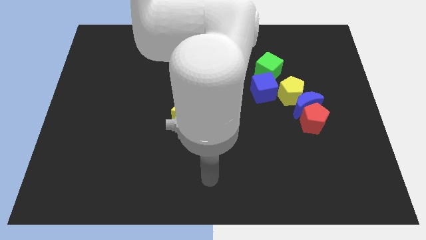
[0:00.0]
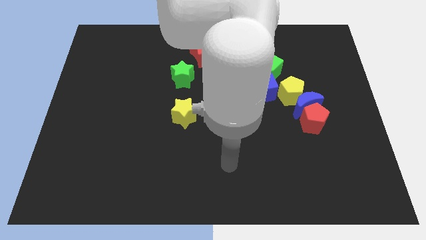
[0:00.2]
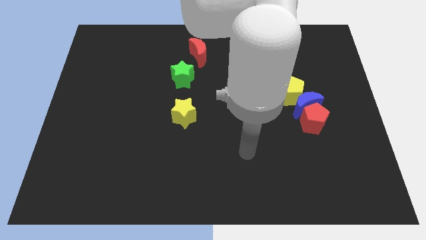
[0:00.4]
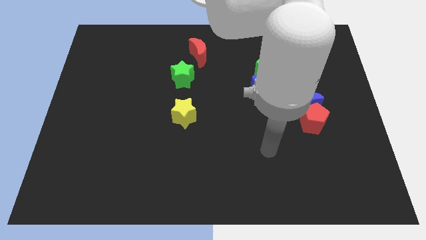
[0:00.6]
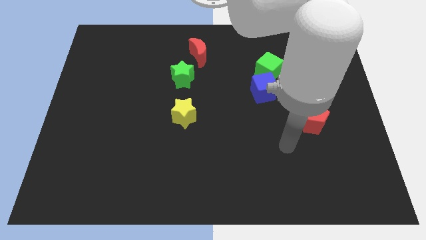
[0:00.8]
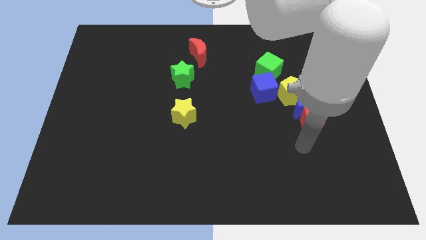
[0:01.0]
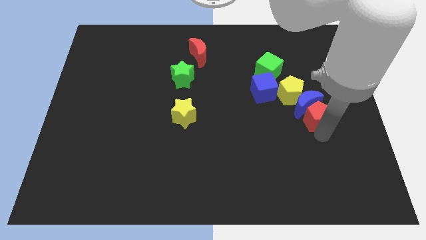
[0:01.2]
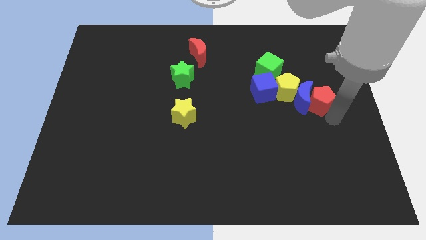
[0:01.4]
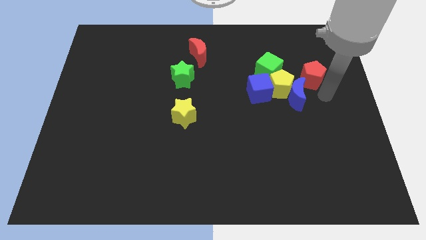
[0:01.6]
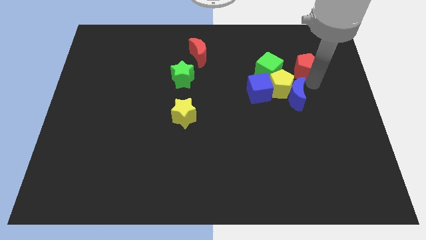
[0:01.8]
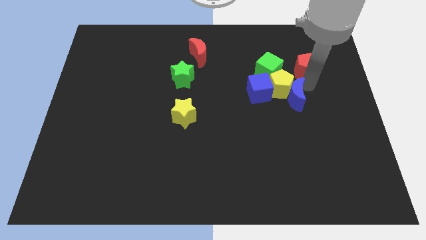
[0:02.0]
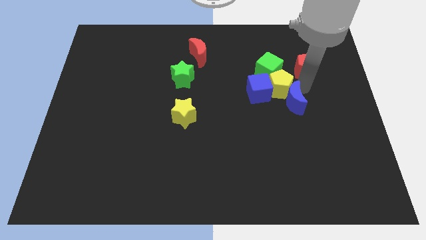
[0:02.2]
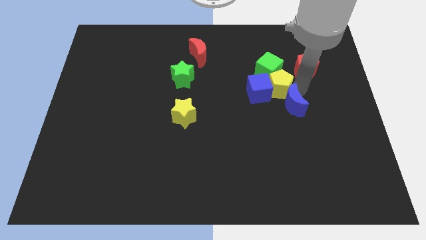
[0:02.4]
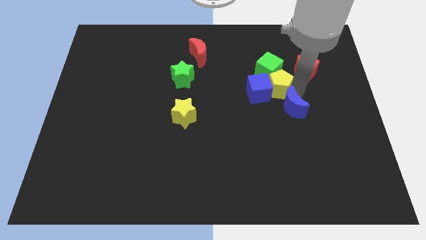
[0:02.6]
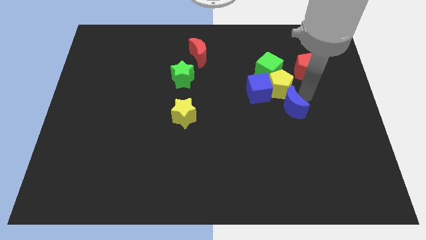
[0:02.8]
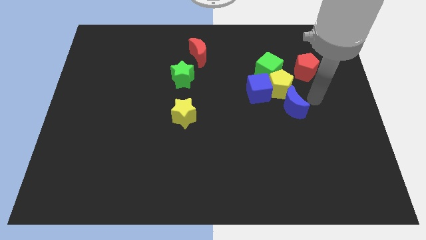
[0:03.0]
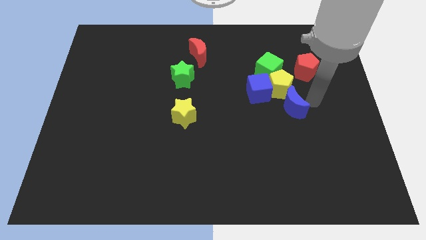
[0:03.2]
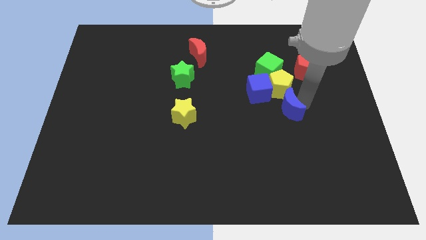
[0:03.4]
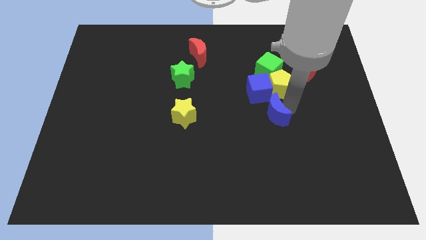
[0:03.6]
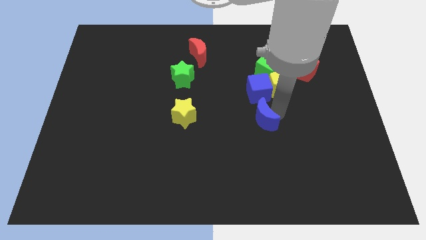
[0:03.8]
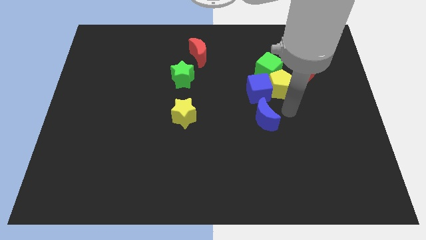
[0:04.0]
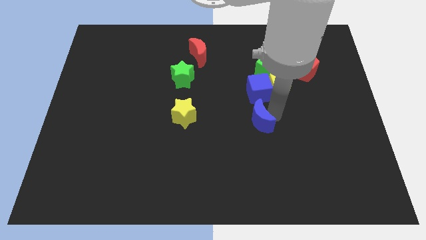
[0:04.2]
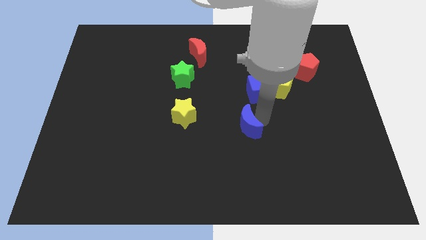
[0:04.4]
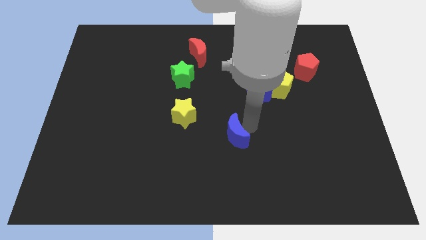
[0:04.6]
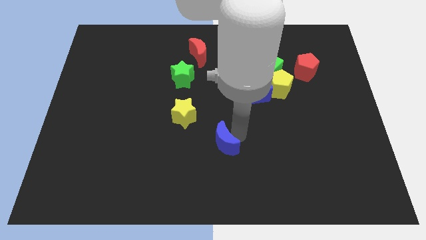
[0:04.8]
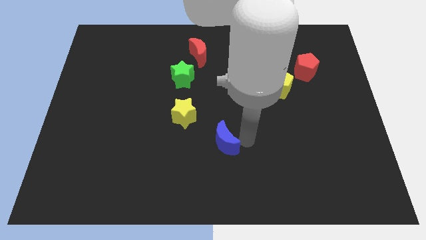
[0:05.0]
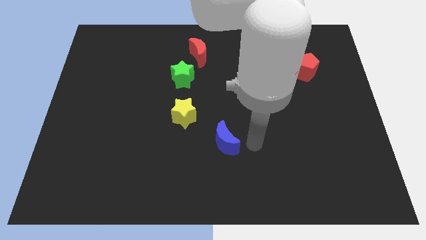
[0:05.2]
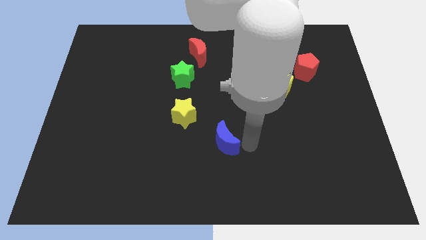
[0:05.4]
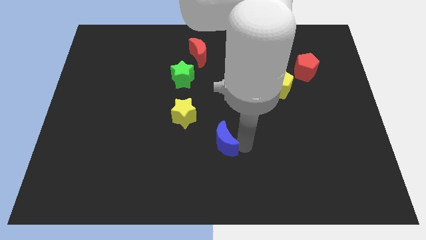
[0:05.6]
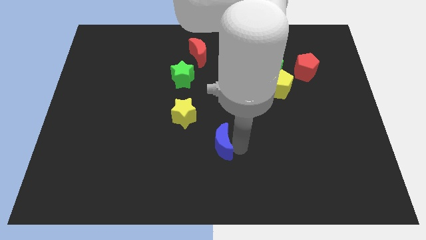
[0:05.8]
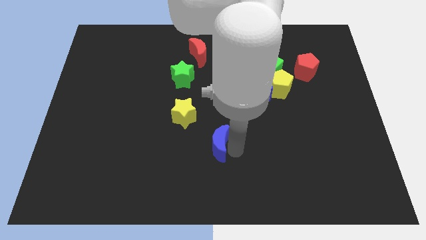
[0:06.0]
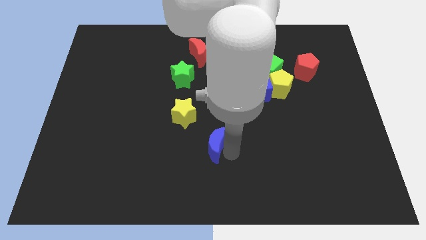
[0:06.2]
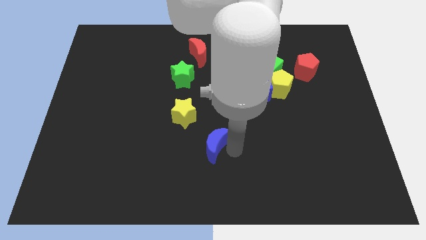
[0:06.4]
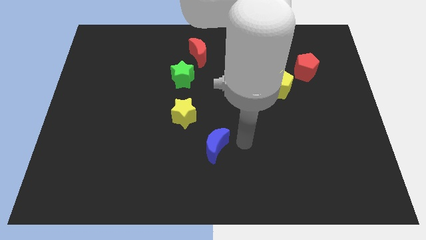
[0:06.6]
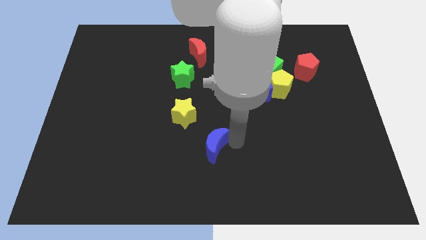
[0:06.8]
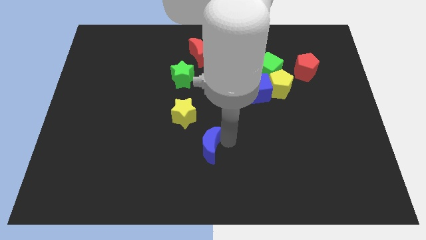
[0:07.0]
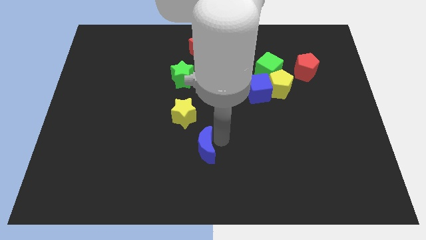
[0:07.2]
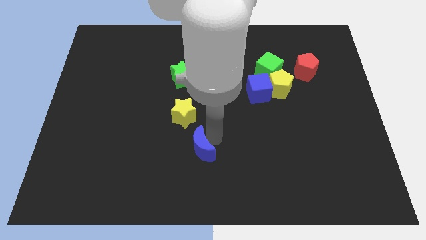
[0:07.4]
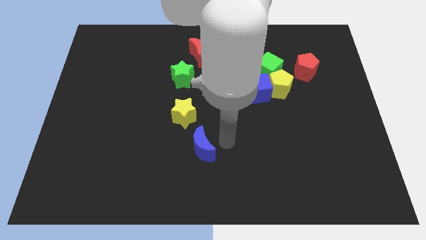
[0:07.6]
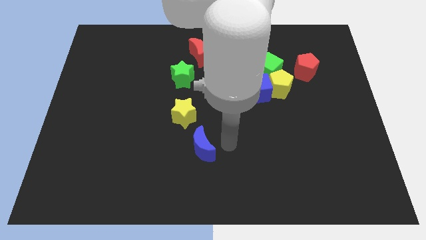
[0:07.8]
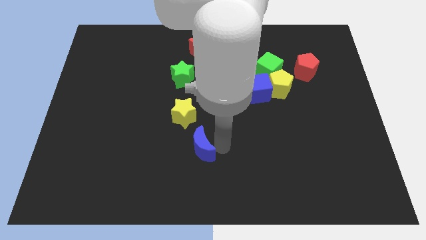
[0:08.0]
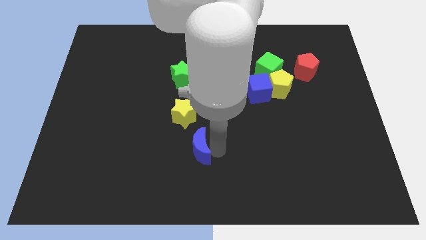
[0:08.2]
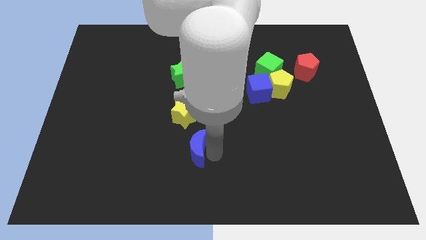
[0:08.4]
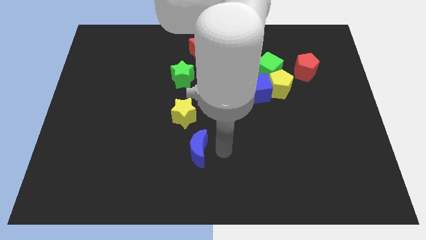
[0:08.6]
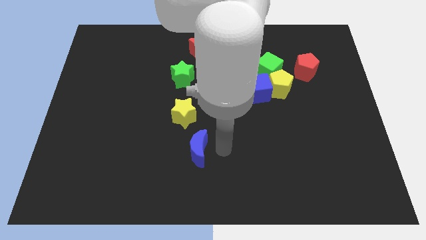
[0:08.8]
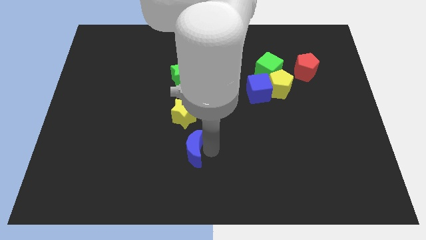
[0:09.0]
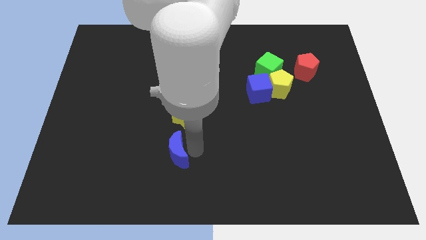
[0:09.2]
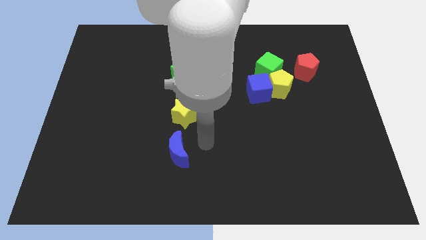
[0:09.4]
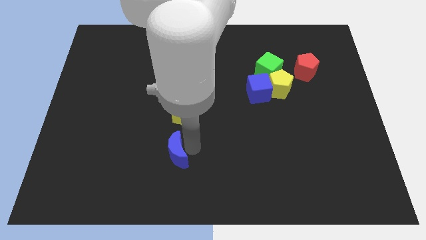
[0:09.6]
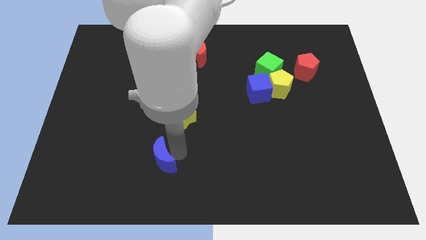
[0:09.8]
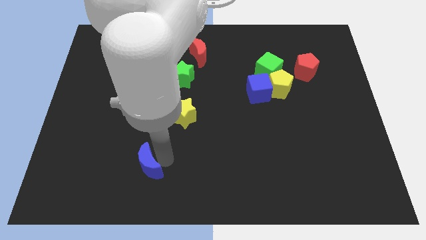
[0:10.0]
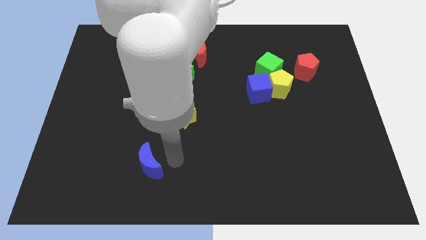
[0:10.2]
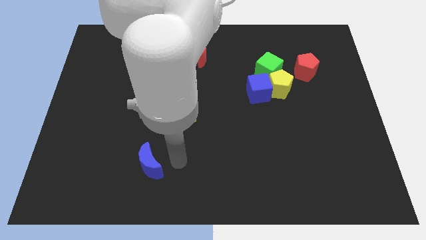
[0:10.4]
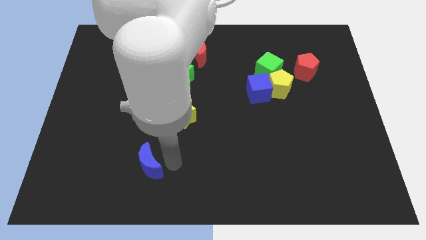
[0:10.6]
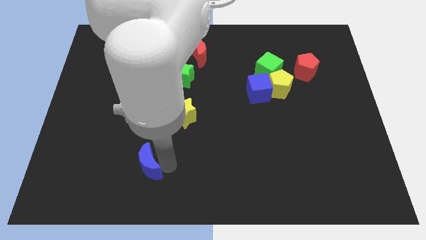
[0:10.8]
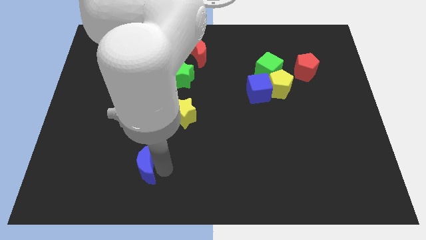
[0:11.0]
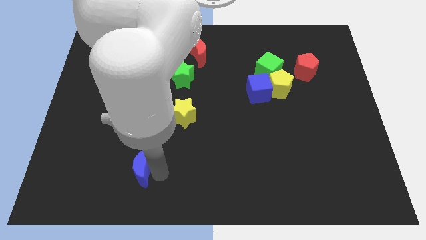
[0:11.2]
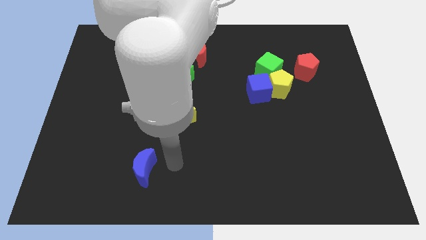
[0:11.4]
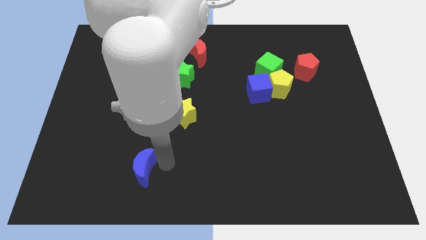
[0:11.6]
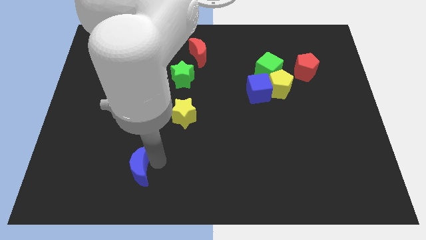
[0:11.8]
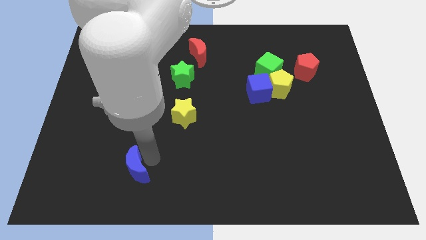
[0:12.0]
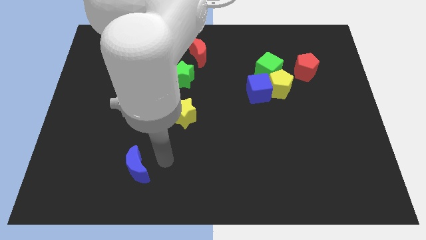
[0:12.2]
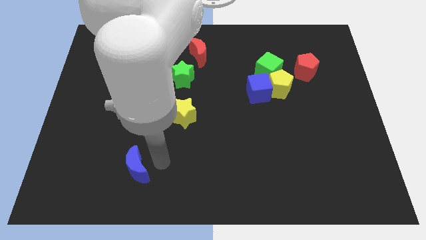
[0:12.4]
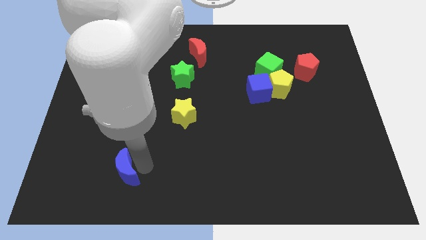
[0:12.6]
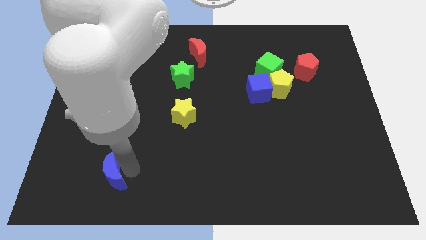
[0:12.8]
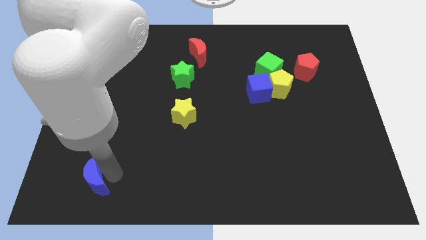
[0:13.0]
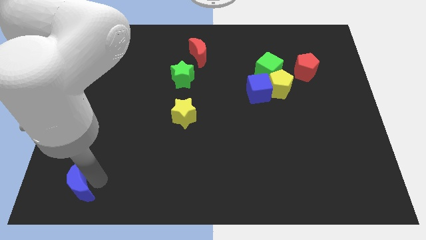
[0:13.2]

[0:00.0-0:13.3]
move the blue moon to the bottom left
